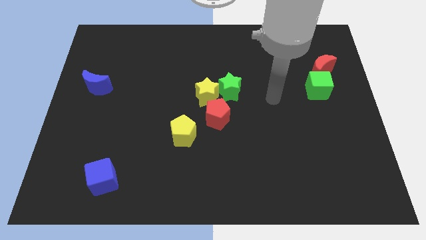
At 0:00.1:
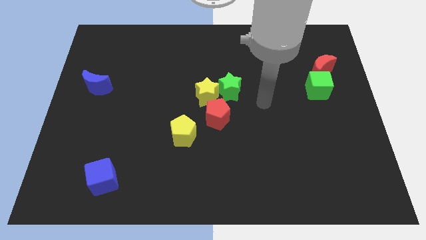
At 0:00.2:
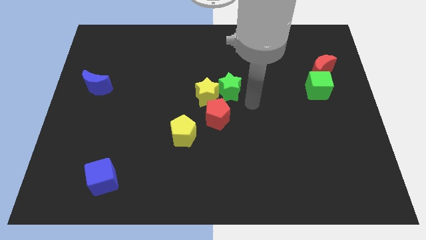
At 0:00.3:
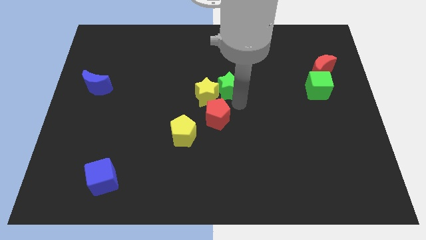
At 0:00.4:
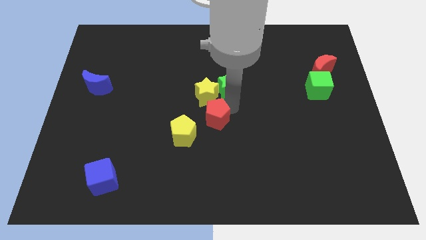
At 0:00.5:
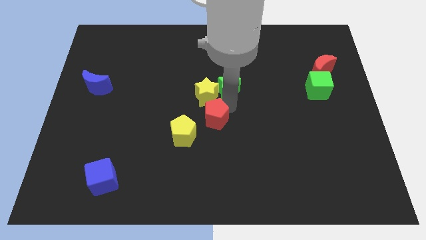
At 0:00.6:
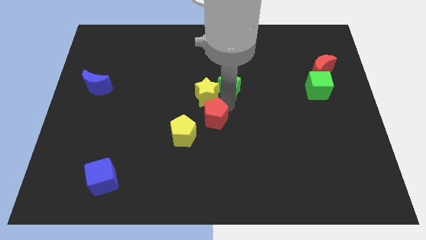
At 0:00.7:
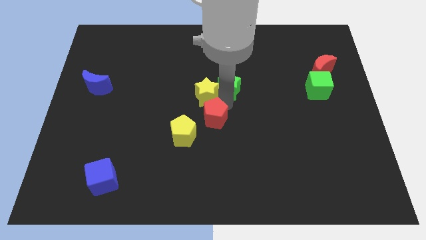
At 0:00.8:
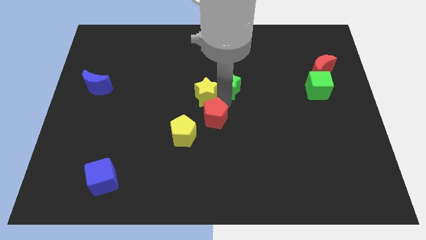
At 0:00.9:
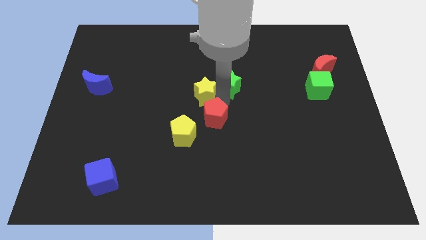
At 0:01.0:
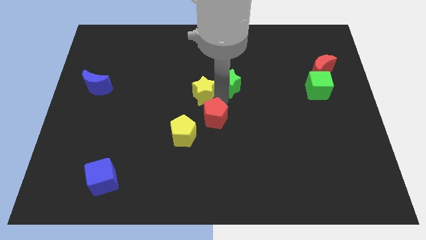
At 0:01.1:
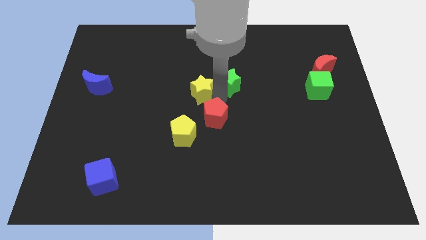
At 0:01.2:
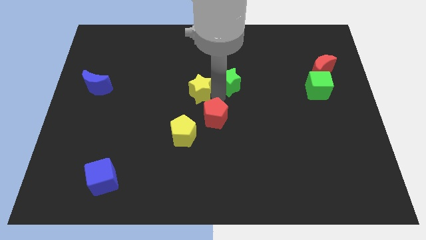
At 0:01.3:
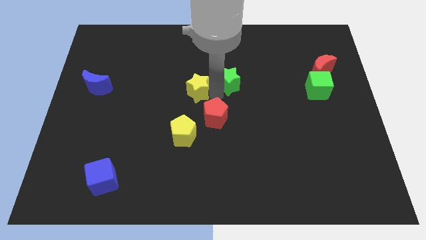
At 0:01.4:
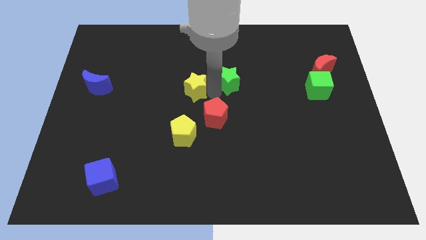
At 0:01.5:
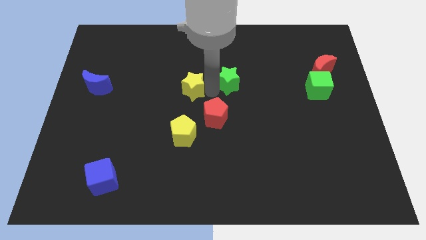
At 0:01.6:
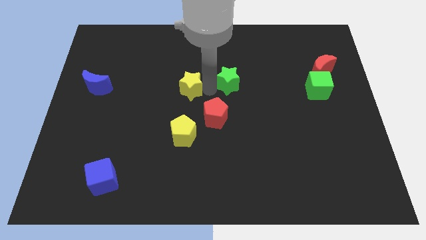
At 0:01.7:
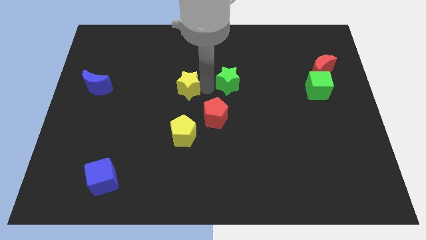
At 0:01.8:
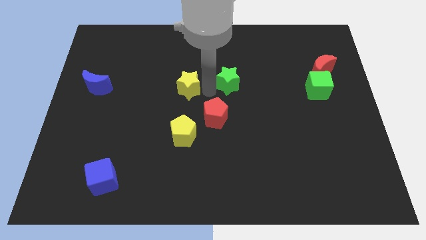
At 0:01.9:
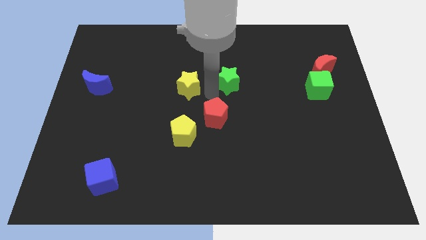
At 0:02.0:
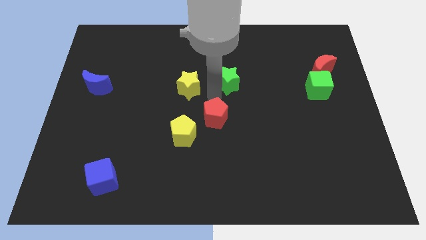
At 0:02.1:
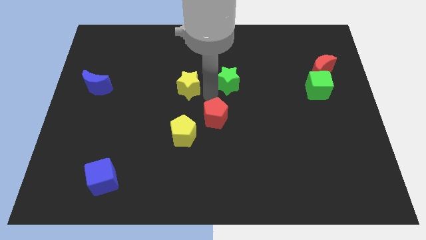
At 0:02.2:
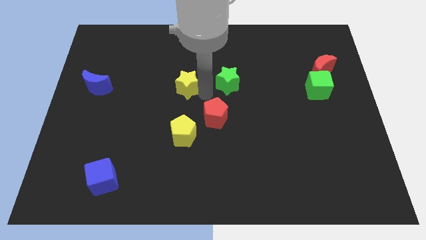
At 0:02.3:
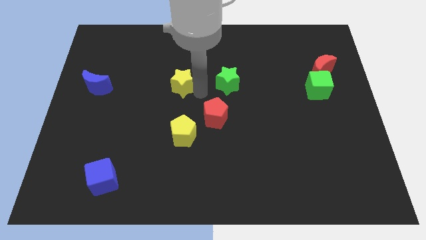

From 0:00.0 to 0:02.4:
separate the yellow star from the green star and red pentagon

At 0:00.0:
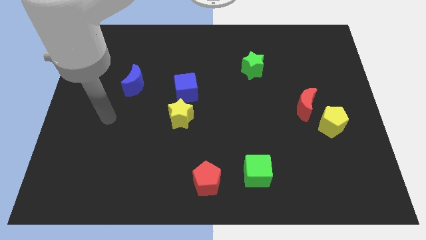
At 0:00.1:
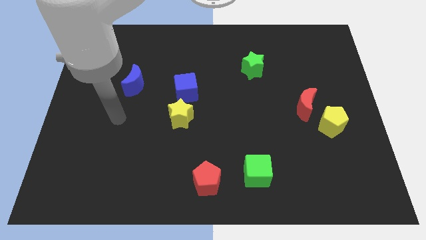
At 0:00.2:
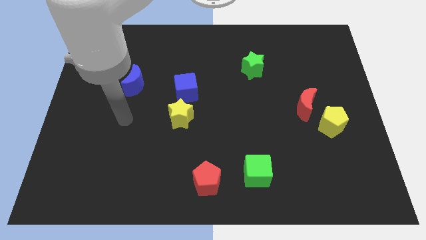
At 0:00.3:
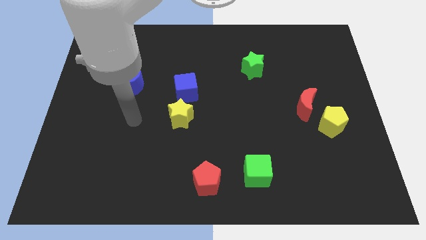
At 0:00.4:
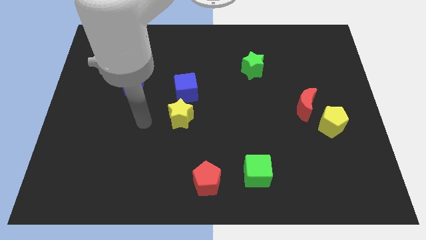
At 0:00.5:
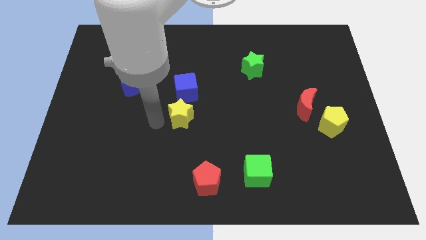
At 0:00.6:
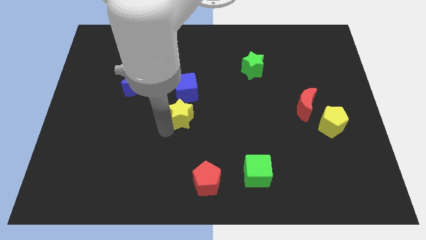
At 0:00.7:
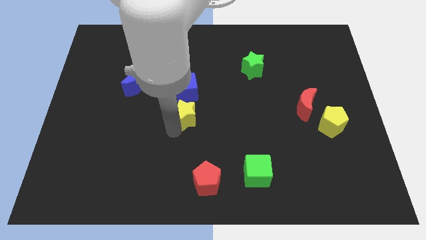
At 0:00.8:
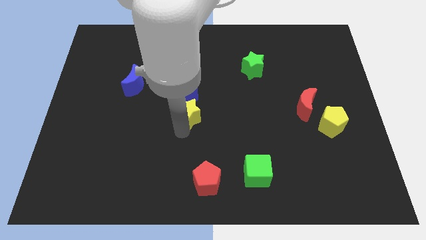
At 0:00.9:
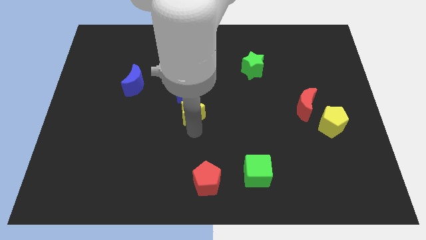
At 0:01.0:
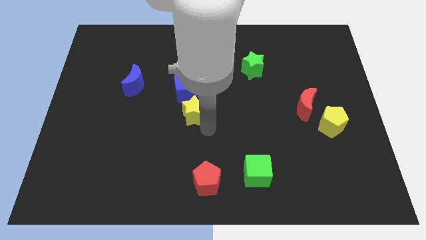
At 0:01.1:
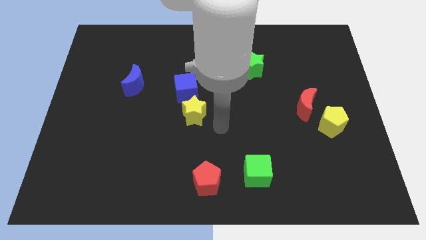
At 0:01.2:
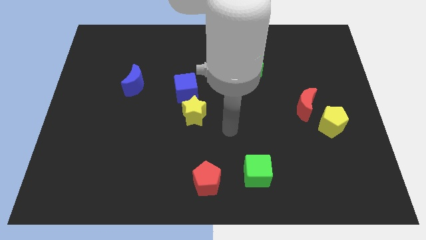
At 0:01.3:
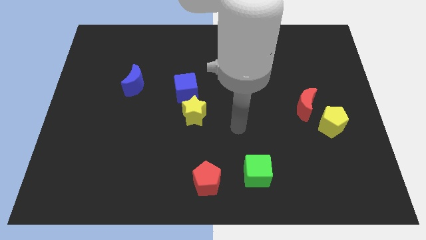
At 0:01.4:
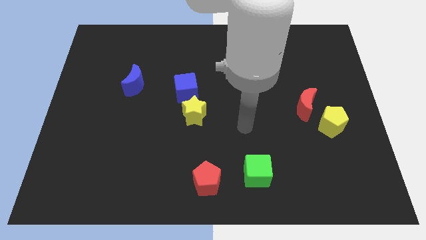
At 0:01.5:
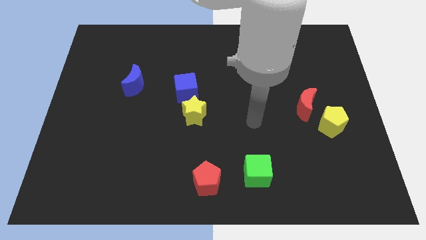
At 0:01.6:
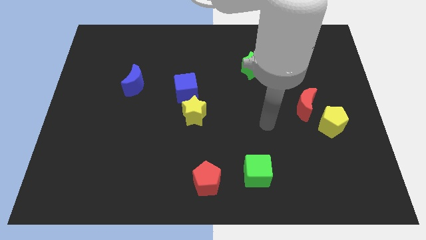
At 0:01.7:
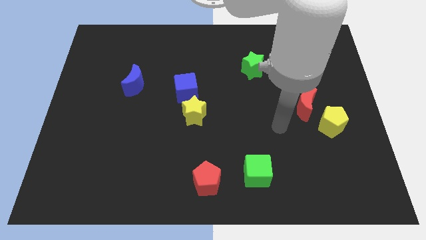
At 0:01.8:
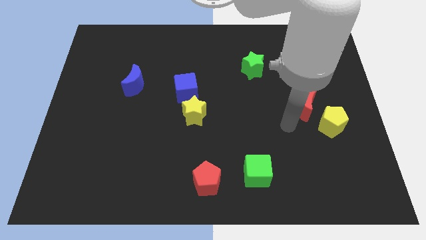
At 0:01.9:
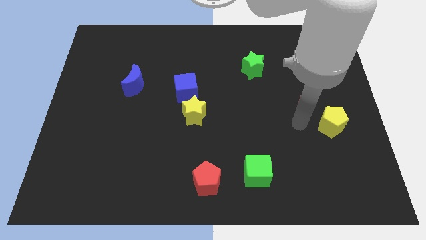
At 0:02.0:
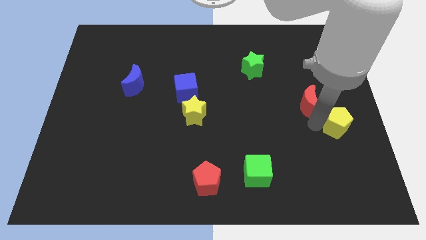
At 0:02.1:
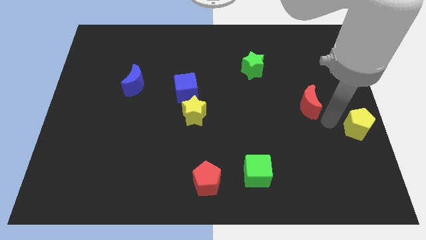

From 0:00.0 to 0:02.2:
pull the red moon apart from the yellow pentagon

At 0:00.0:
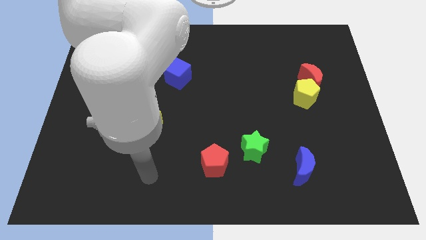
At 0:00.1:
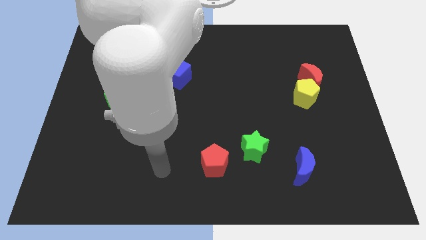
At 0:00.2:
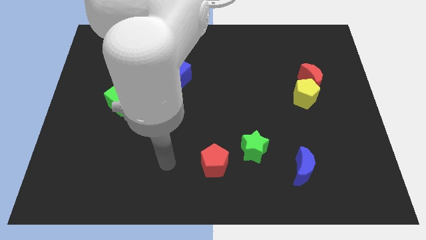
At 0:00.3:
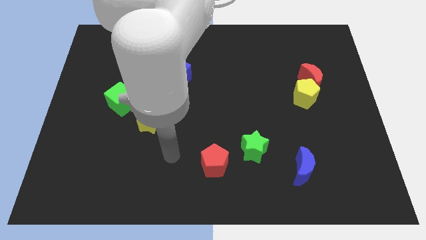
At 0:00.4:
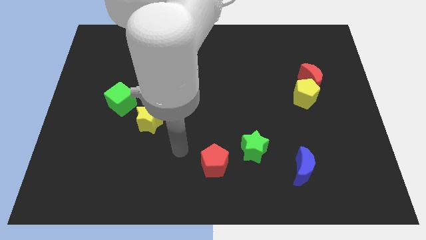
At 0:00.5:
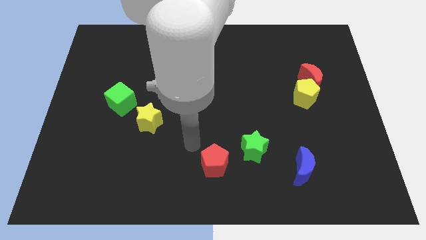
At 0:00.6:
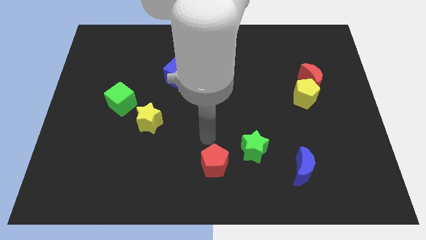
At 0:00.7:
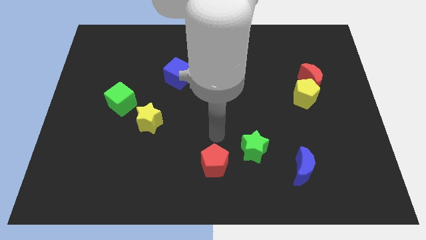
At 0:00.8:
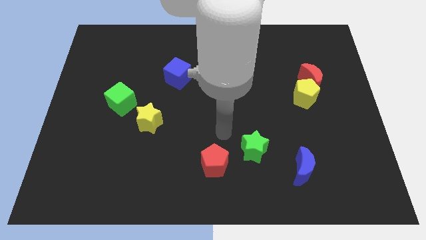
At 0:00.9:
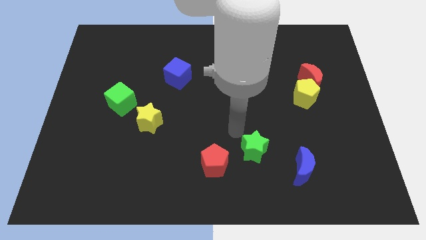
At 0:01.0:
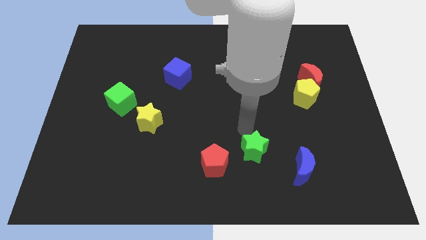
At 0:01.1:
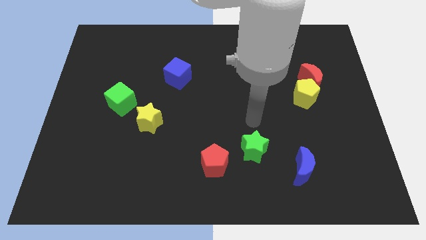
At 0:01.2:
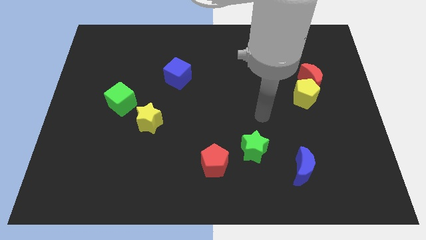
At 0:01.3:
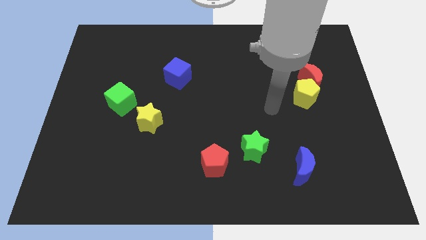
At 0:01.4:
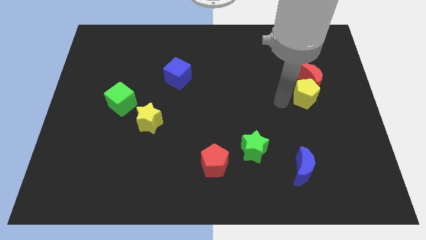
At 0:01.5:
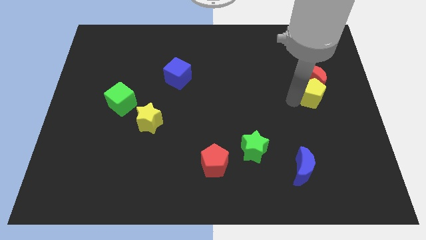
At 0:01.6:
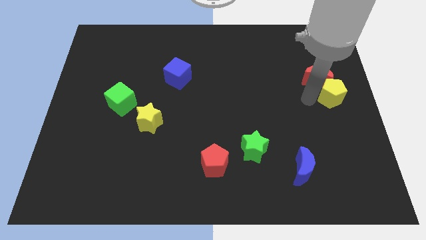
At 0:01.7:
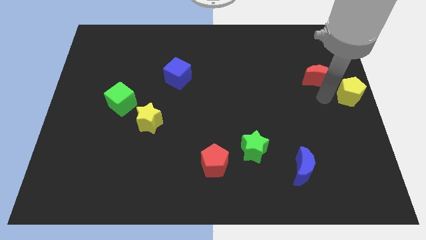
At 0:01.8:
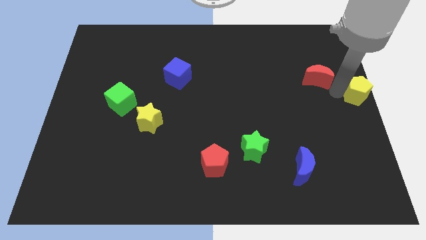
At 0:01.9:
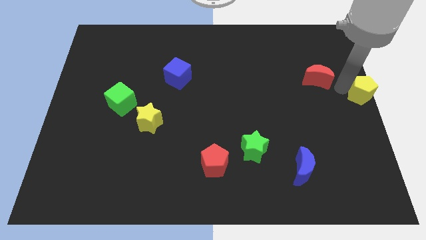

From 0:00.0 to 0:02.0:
move the red moon away from the yellow pentagon

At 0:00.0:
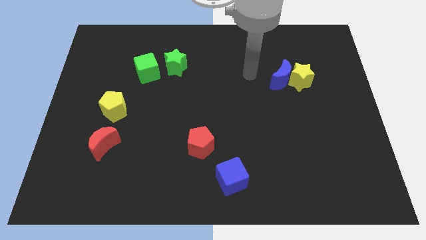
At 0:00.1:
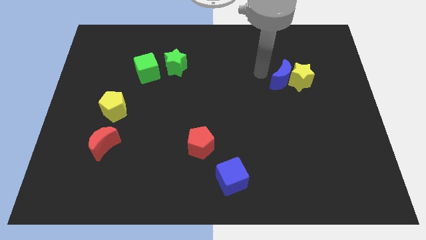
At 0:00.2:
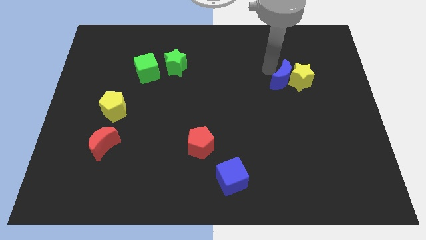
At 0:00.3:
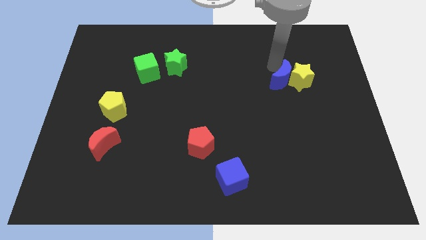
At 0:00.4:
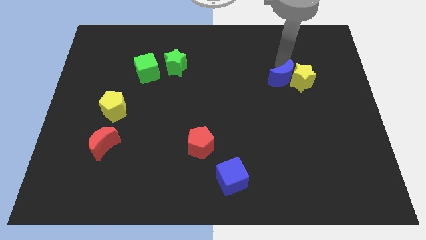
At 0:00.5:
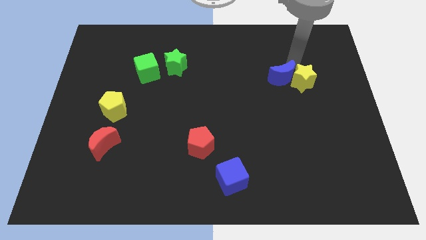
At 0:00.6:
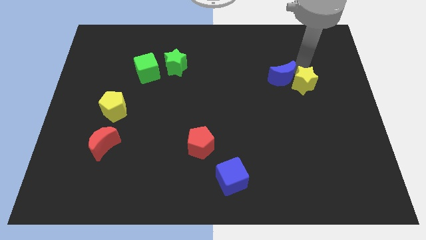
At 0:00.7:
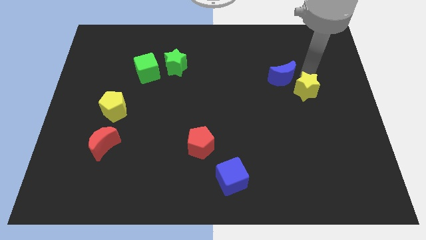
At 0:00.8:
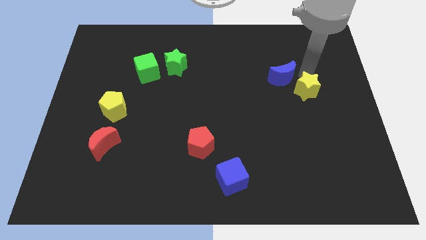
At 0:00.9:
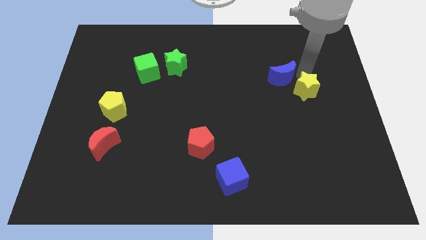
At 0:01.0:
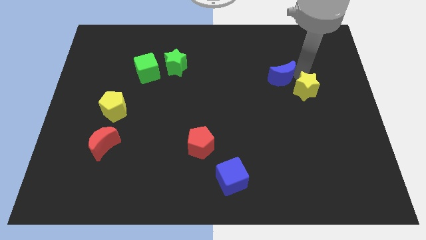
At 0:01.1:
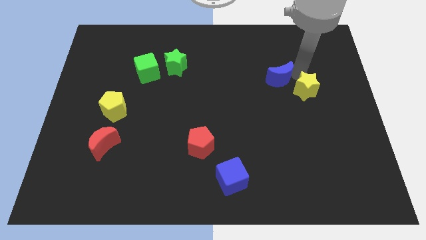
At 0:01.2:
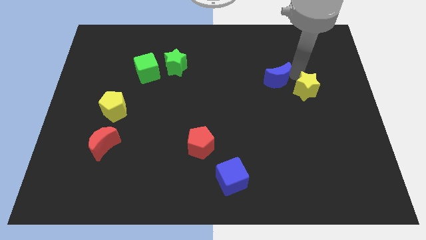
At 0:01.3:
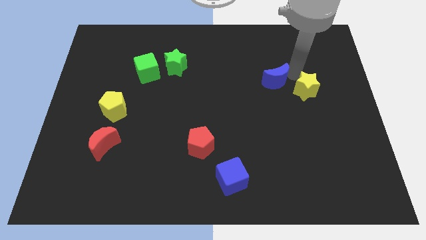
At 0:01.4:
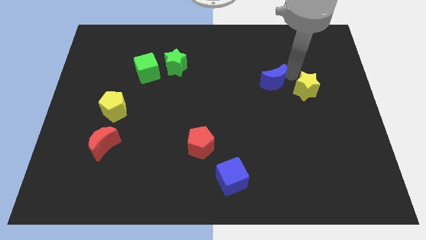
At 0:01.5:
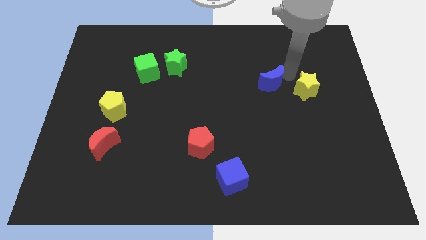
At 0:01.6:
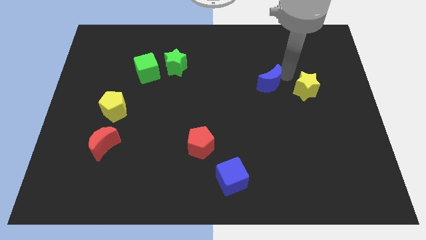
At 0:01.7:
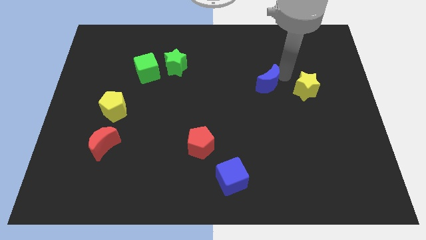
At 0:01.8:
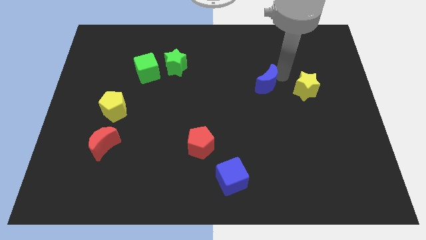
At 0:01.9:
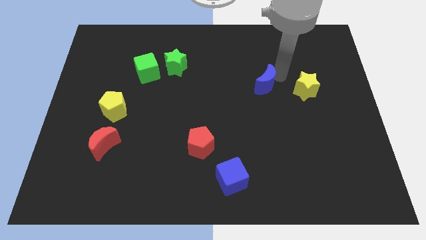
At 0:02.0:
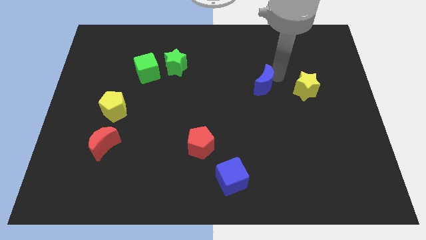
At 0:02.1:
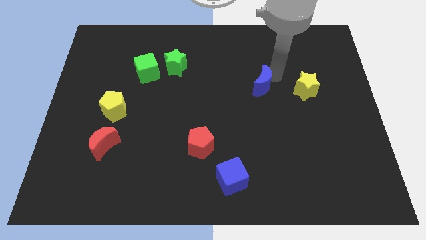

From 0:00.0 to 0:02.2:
pull the blue moon apart from the yellow star

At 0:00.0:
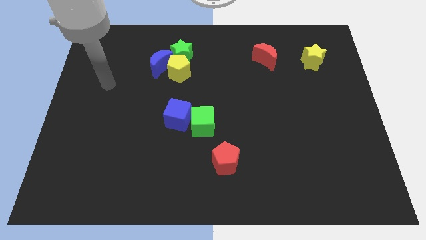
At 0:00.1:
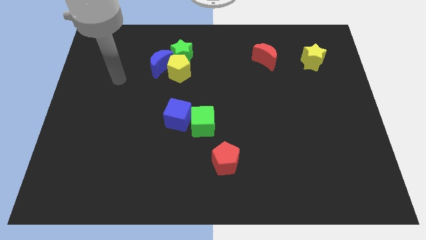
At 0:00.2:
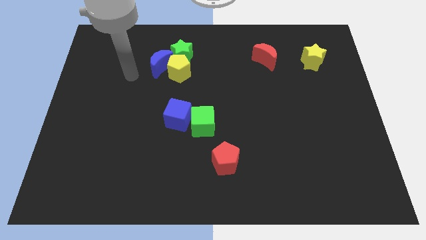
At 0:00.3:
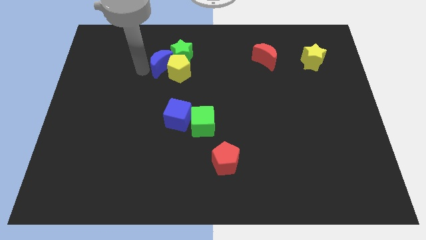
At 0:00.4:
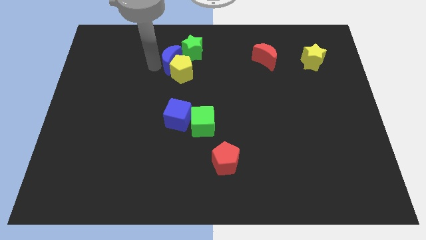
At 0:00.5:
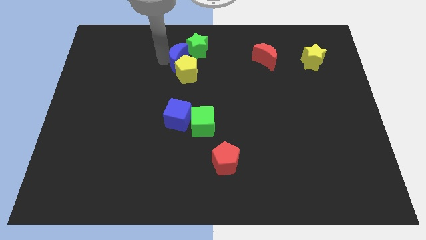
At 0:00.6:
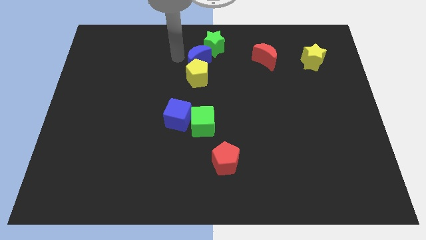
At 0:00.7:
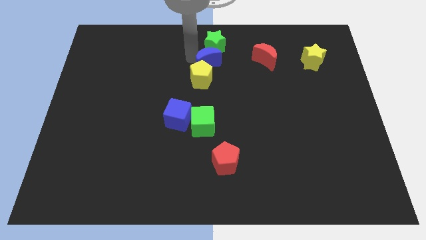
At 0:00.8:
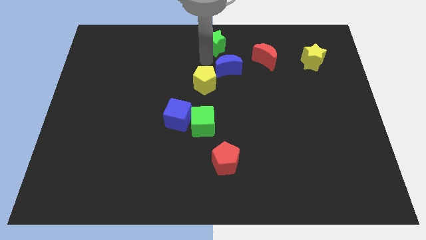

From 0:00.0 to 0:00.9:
pull the yellow pentagon apart from the blue moon and green star
